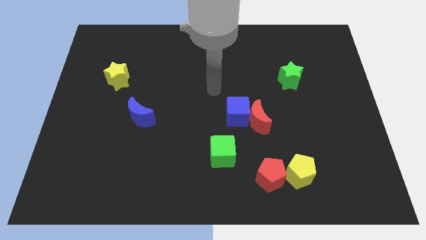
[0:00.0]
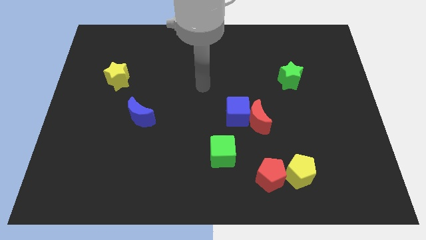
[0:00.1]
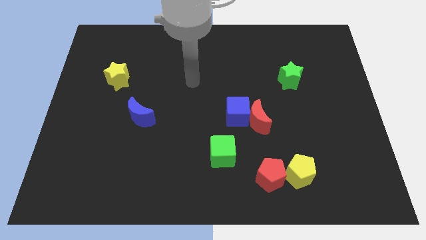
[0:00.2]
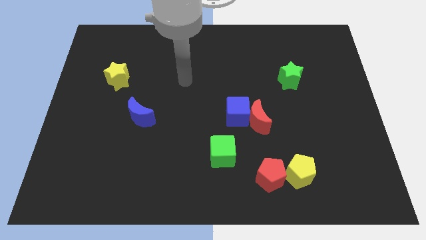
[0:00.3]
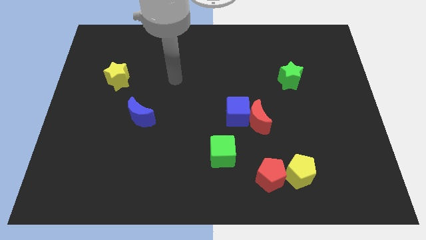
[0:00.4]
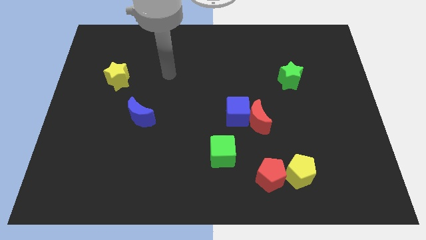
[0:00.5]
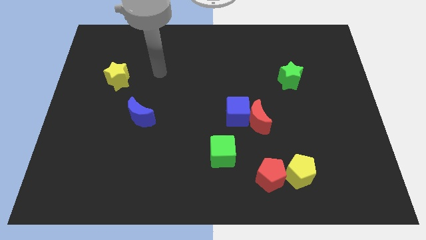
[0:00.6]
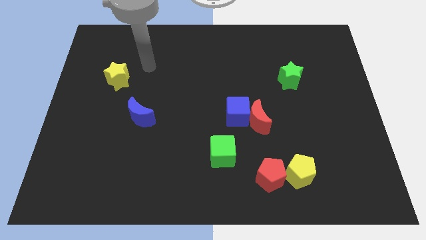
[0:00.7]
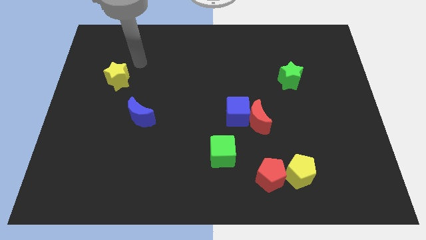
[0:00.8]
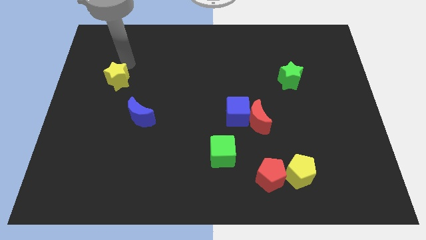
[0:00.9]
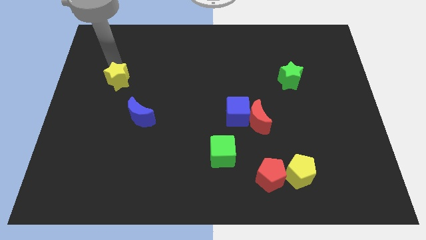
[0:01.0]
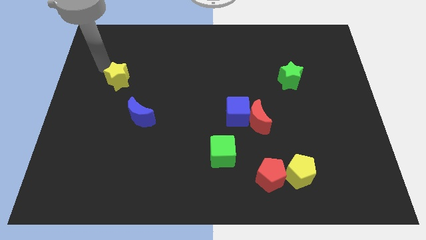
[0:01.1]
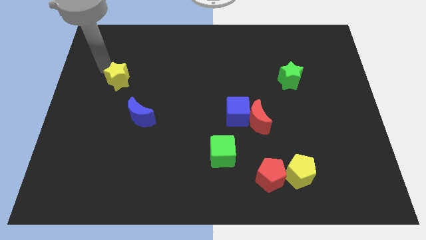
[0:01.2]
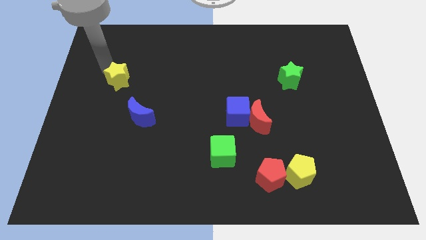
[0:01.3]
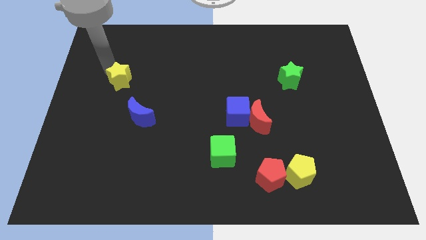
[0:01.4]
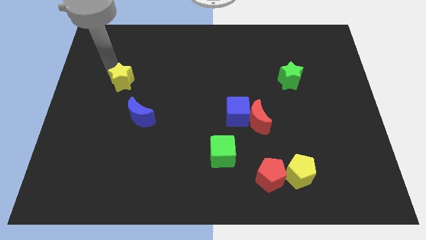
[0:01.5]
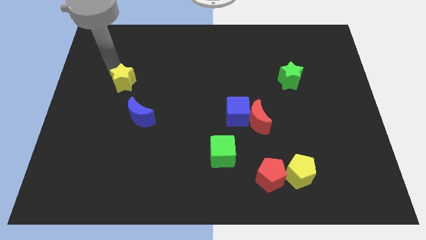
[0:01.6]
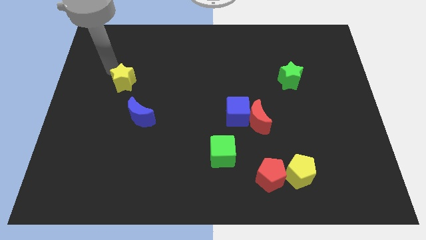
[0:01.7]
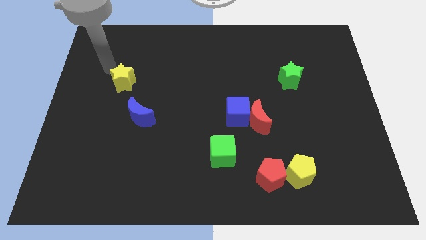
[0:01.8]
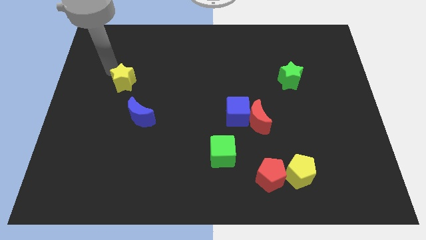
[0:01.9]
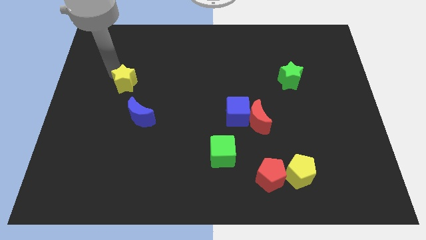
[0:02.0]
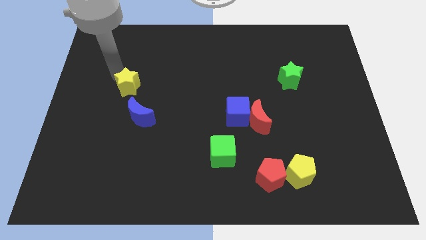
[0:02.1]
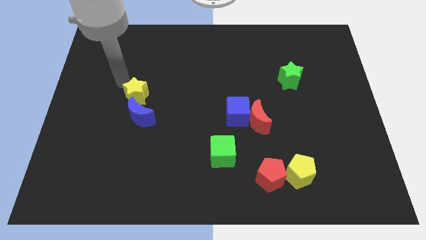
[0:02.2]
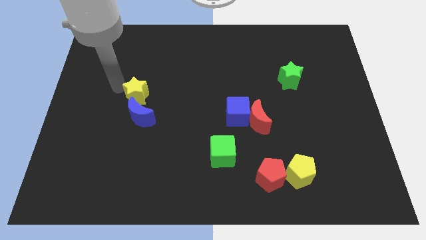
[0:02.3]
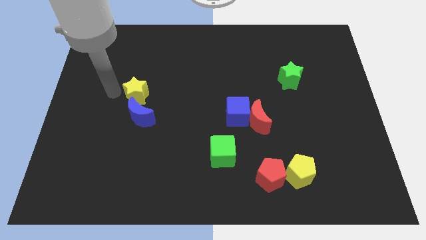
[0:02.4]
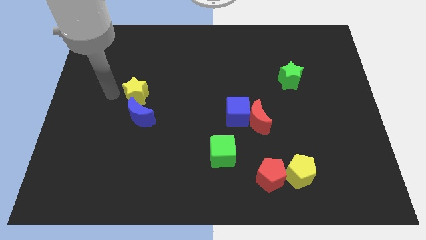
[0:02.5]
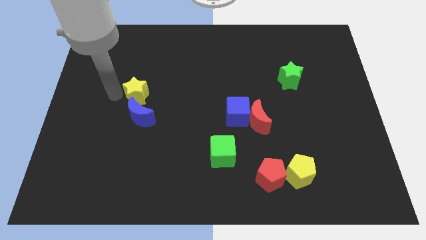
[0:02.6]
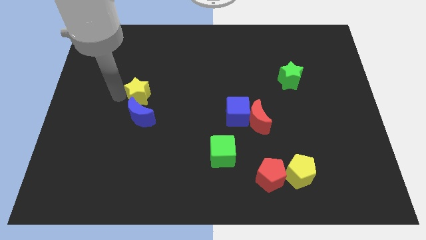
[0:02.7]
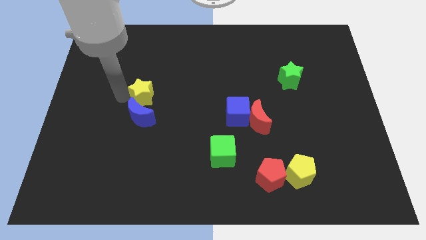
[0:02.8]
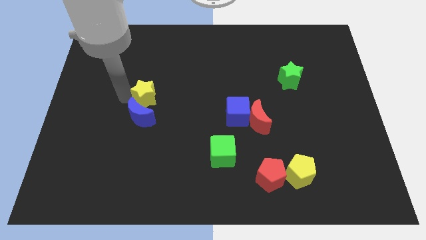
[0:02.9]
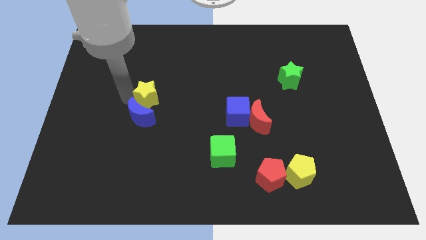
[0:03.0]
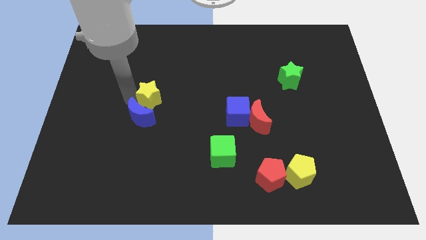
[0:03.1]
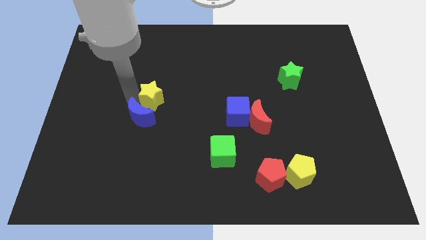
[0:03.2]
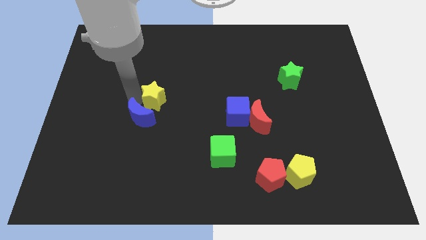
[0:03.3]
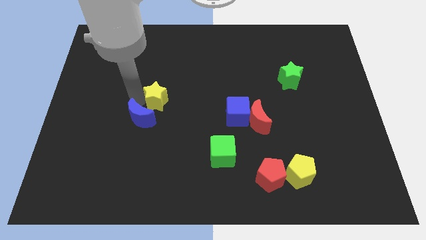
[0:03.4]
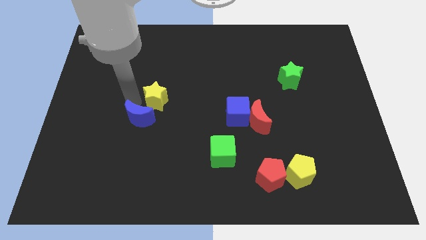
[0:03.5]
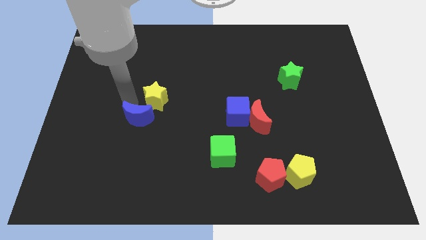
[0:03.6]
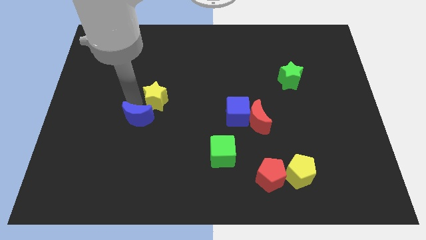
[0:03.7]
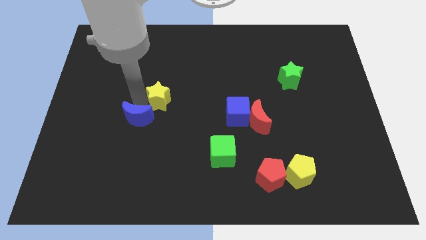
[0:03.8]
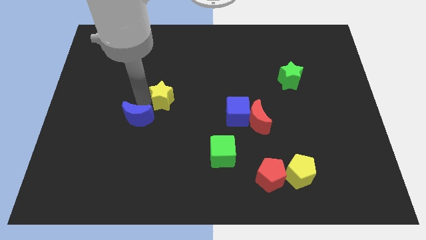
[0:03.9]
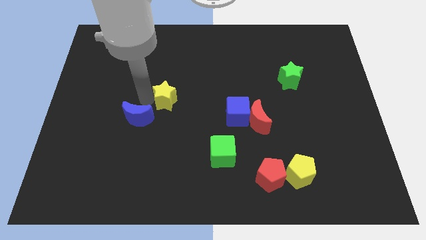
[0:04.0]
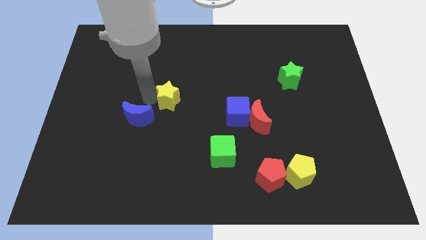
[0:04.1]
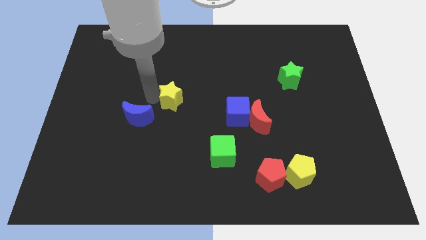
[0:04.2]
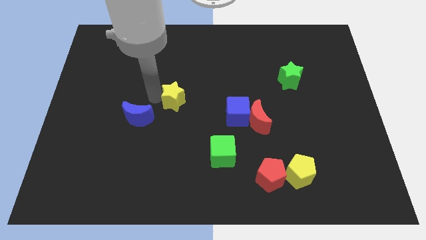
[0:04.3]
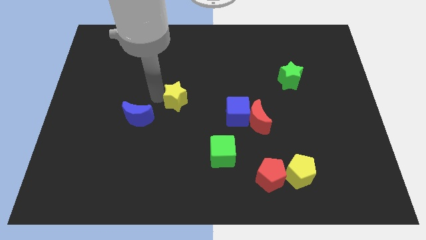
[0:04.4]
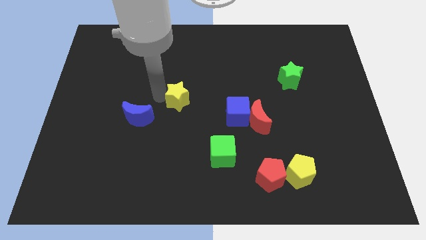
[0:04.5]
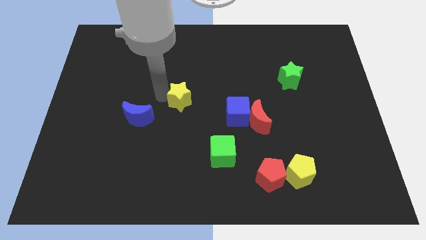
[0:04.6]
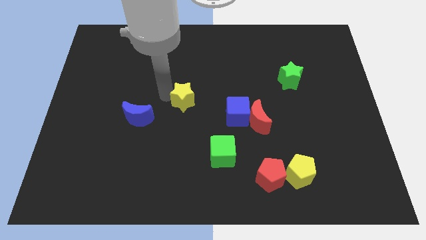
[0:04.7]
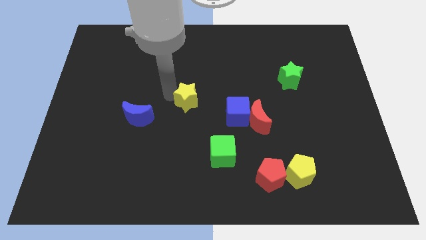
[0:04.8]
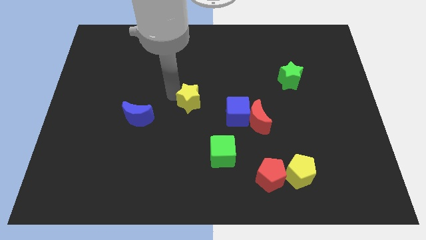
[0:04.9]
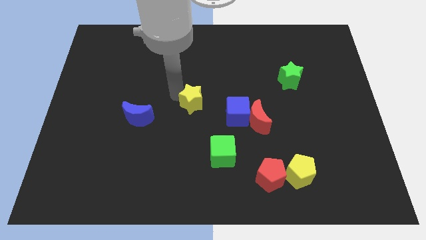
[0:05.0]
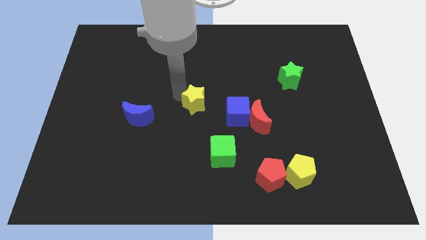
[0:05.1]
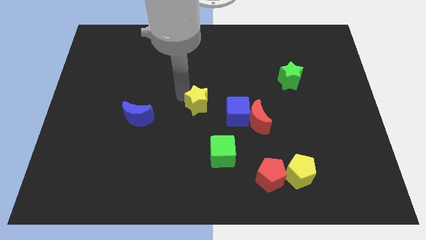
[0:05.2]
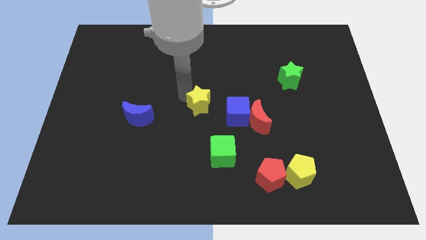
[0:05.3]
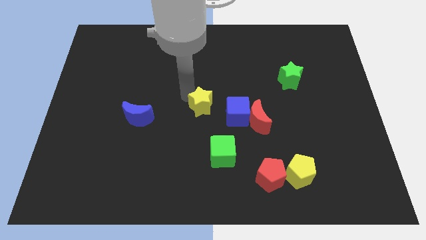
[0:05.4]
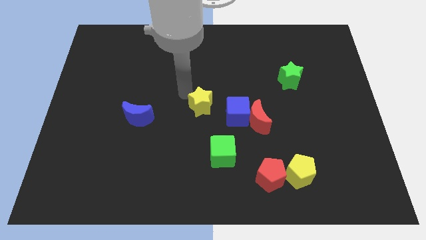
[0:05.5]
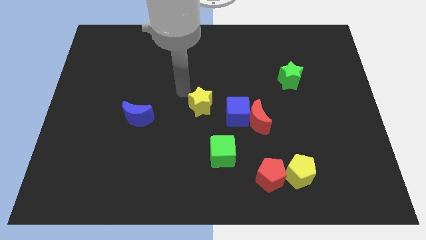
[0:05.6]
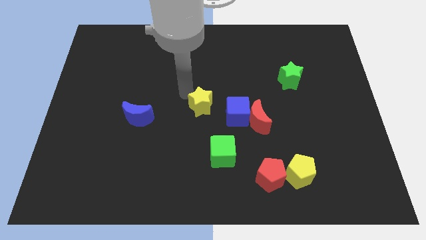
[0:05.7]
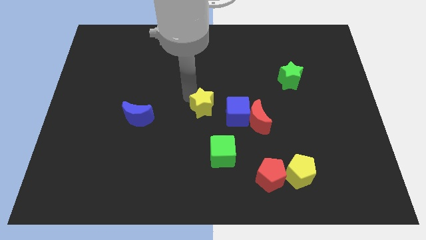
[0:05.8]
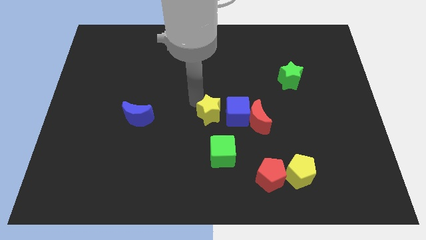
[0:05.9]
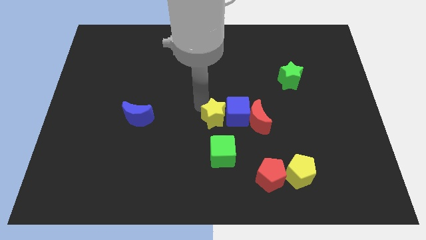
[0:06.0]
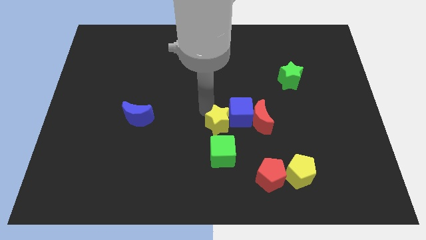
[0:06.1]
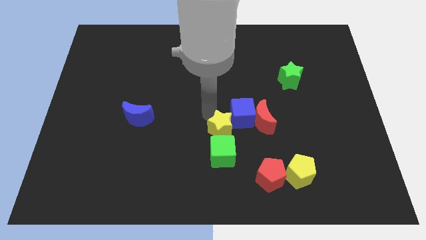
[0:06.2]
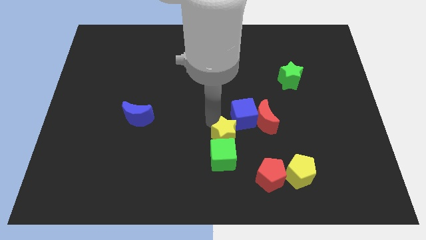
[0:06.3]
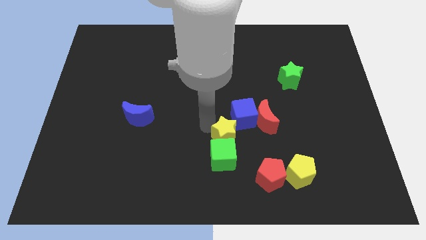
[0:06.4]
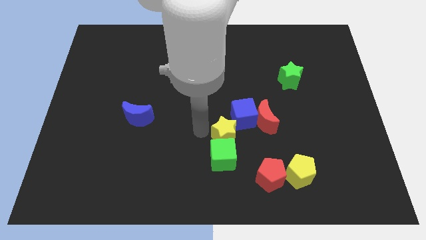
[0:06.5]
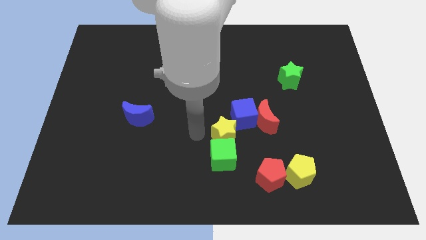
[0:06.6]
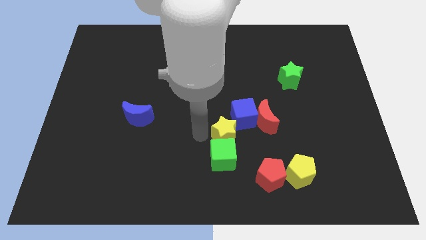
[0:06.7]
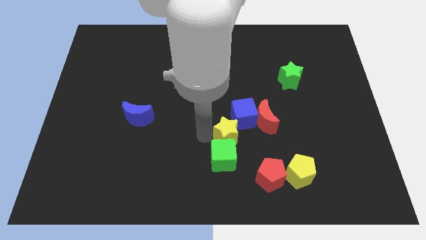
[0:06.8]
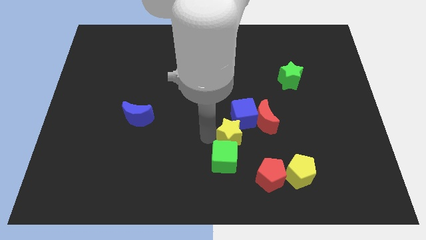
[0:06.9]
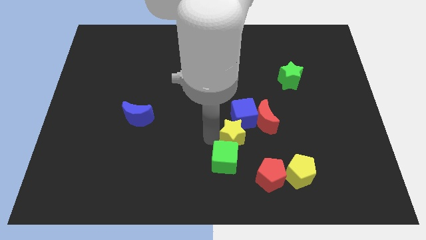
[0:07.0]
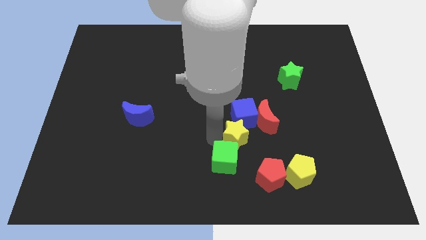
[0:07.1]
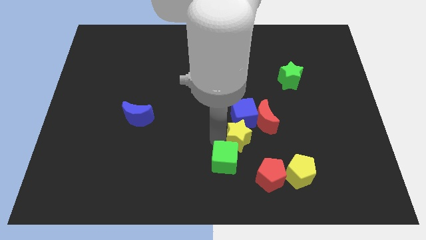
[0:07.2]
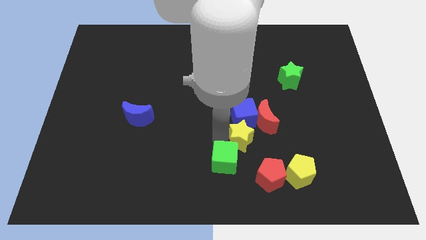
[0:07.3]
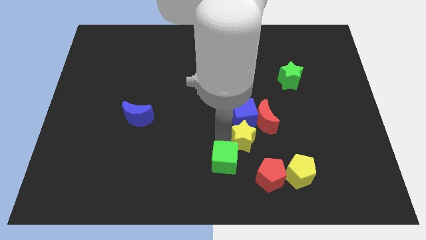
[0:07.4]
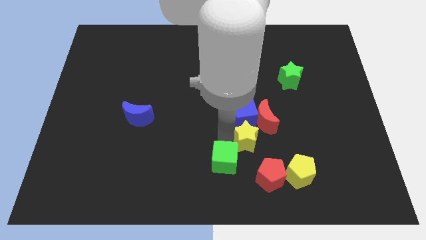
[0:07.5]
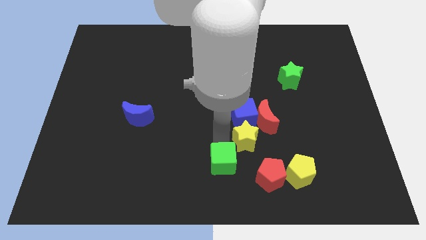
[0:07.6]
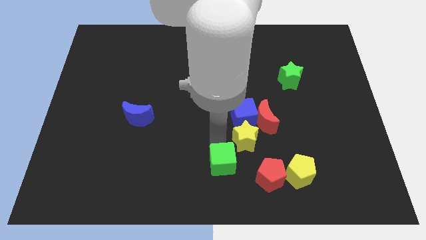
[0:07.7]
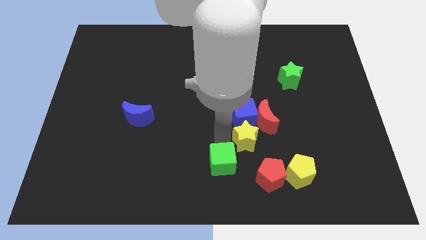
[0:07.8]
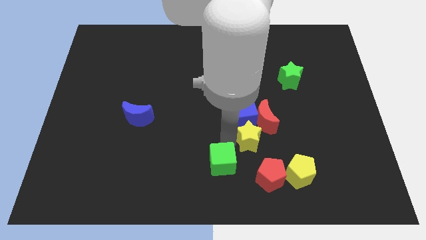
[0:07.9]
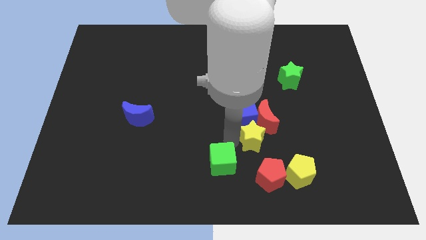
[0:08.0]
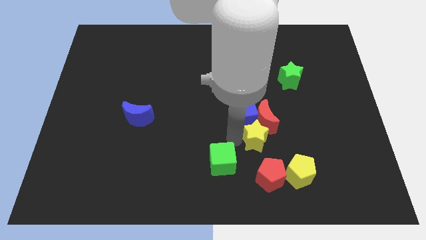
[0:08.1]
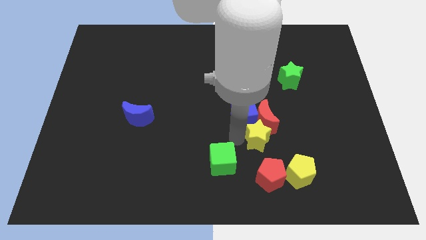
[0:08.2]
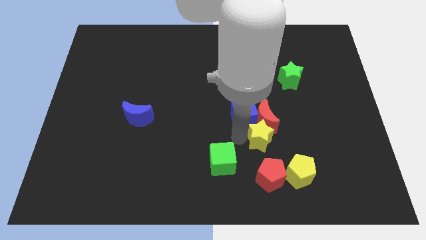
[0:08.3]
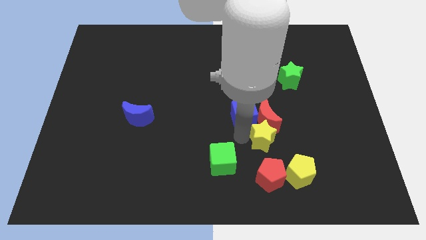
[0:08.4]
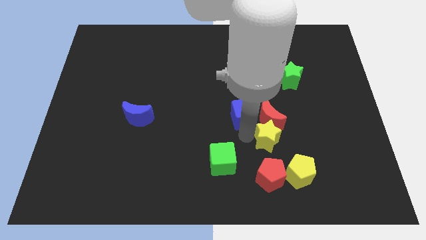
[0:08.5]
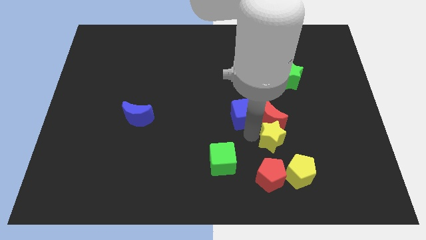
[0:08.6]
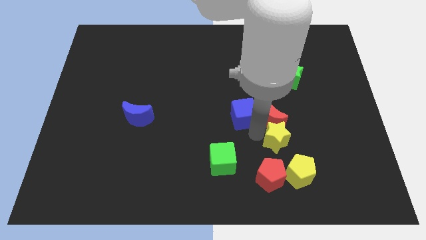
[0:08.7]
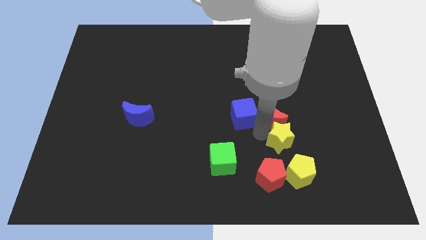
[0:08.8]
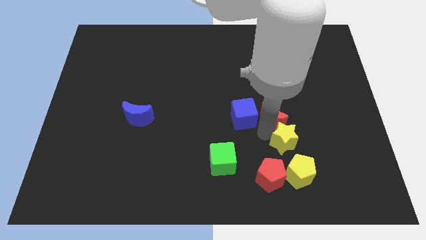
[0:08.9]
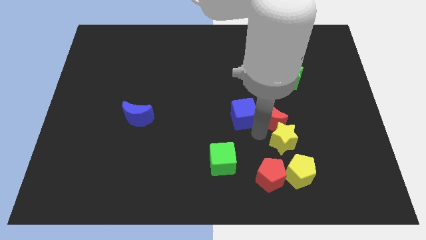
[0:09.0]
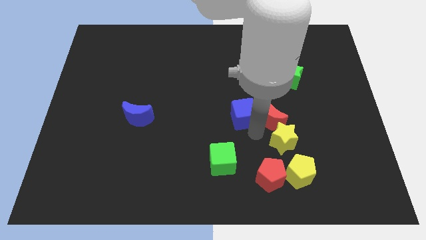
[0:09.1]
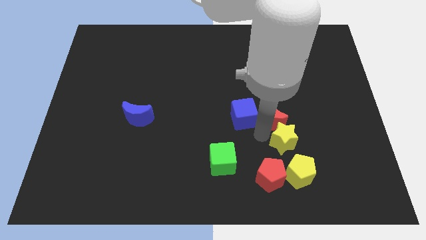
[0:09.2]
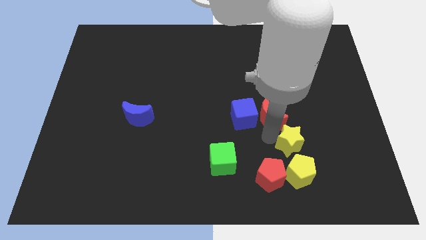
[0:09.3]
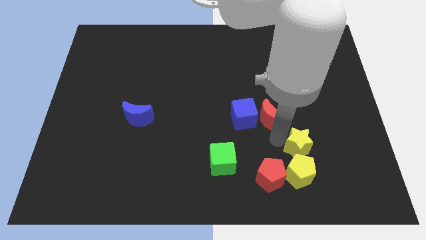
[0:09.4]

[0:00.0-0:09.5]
move the yellow star to the top right side of the yellow pentagon
